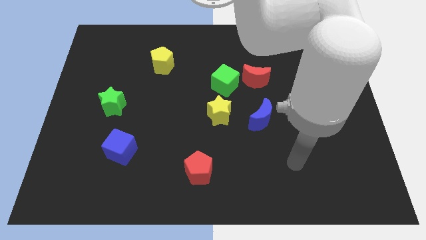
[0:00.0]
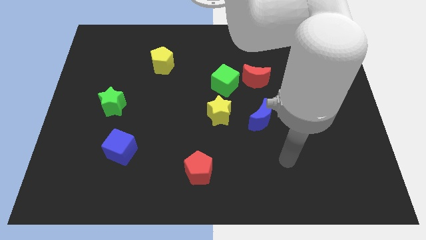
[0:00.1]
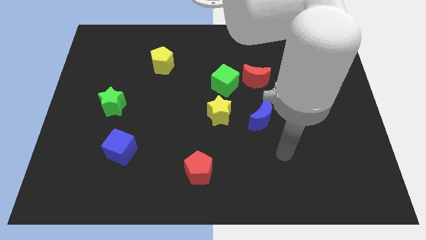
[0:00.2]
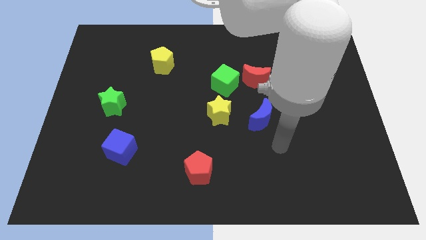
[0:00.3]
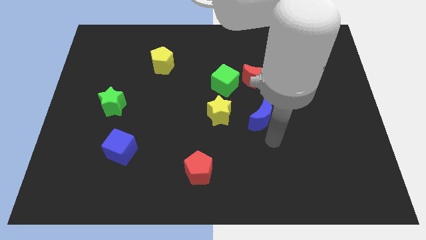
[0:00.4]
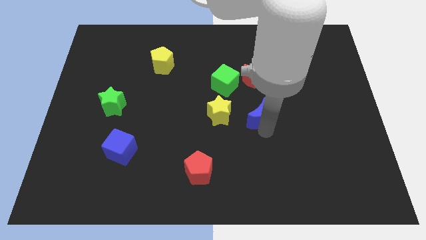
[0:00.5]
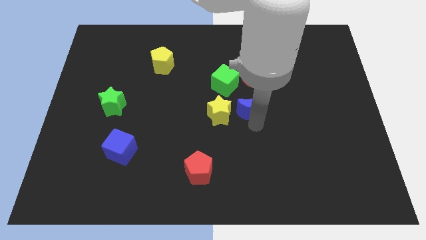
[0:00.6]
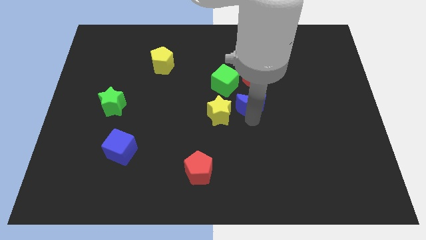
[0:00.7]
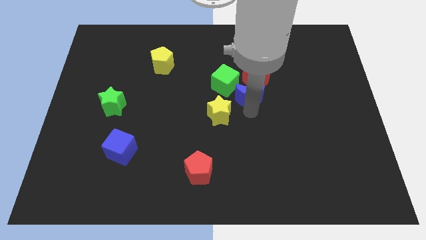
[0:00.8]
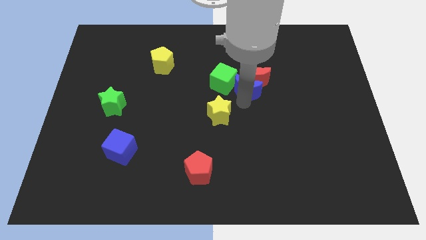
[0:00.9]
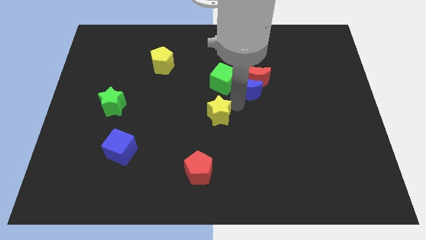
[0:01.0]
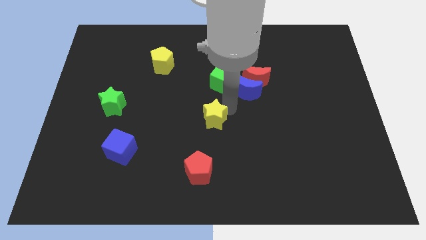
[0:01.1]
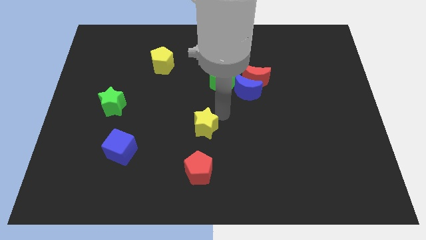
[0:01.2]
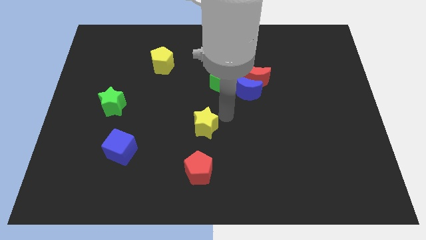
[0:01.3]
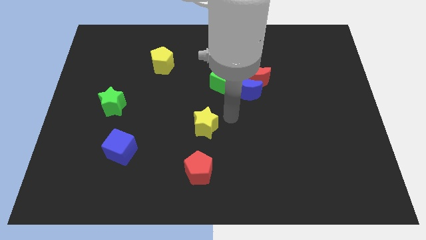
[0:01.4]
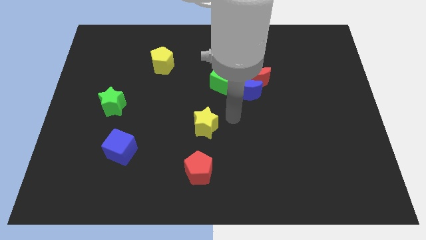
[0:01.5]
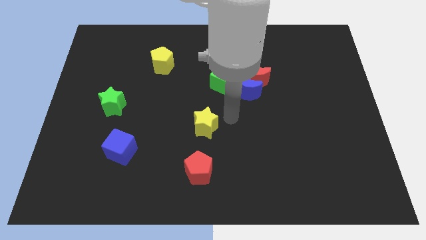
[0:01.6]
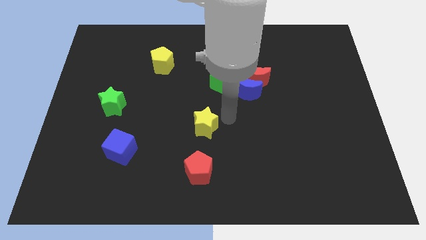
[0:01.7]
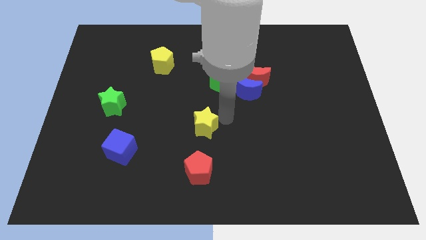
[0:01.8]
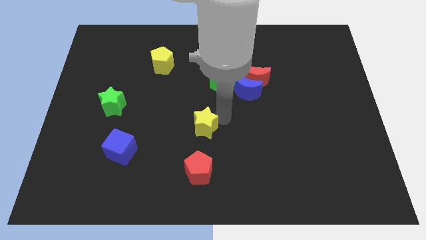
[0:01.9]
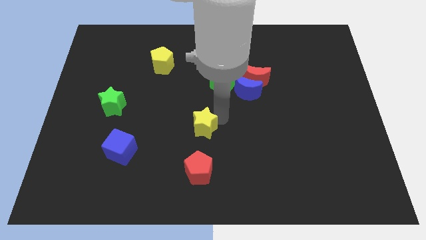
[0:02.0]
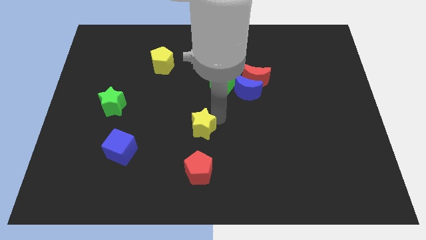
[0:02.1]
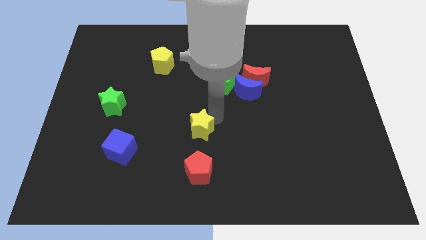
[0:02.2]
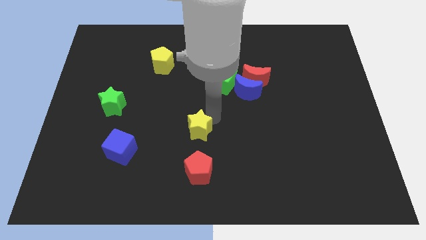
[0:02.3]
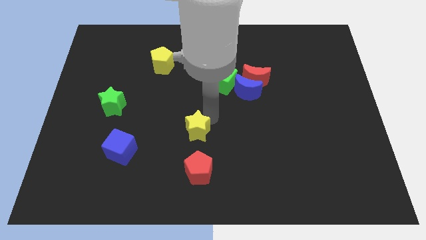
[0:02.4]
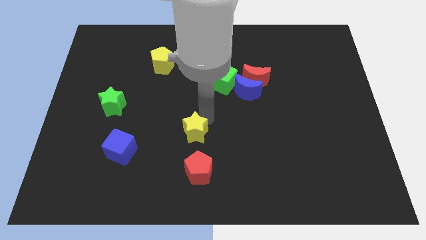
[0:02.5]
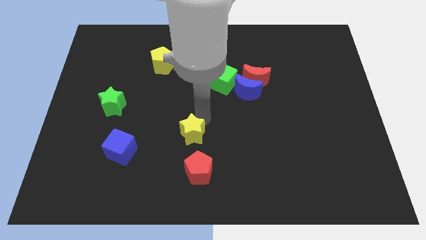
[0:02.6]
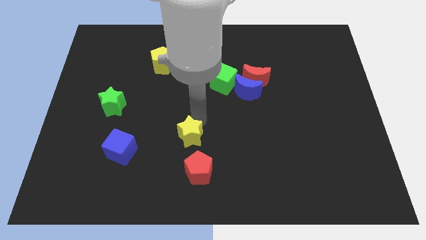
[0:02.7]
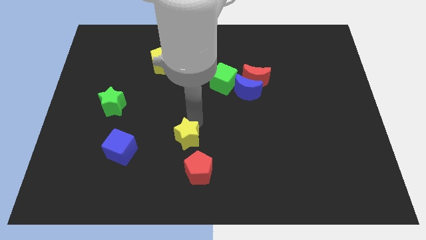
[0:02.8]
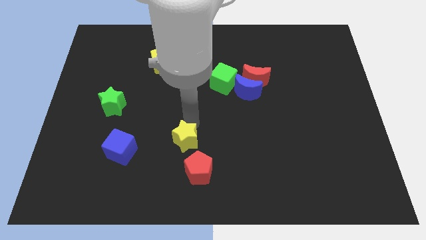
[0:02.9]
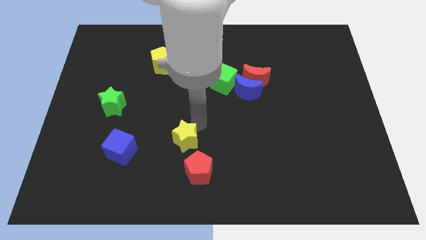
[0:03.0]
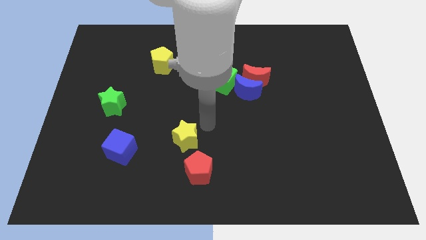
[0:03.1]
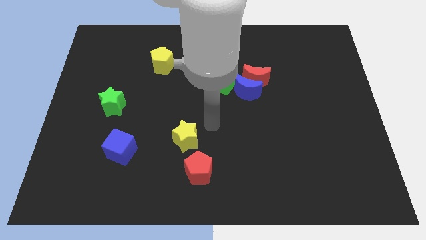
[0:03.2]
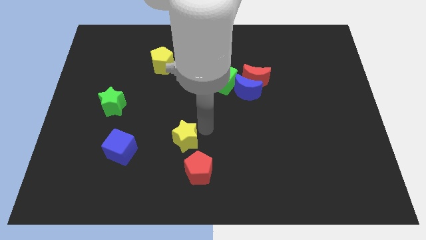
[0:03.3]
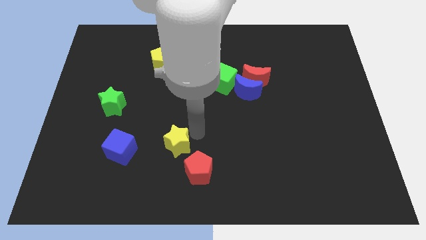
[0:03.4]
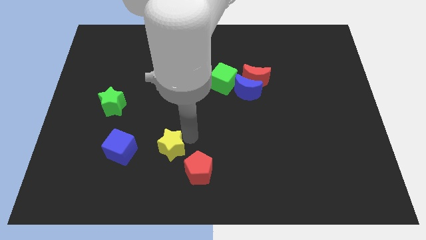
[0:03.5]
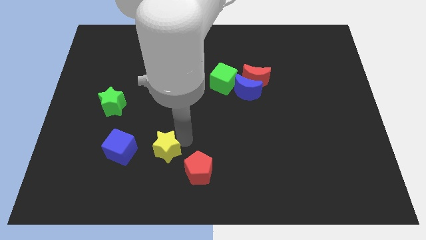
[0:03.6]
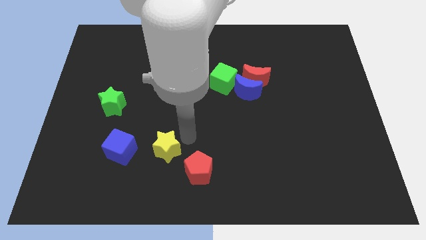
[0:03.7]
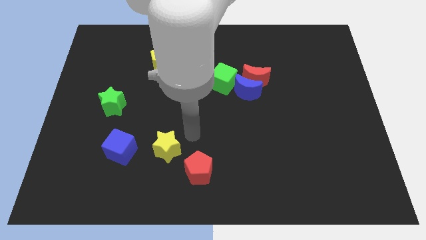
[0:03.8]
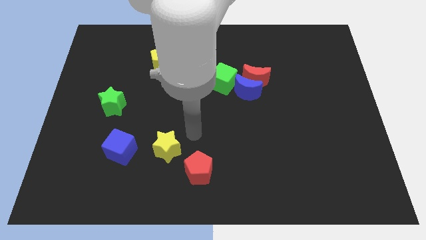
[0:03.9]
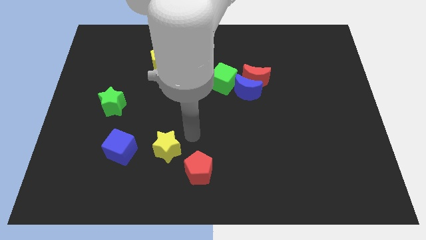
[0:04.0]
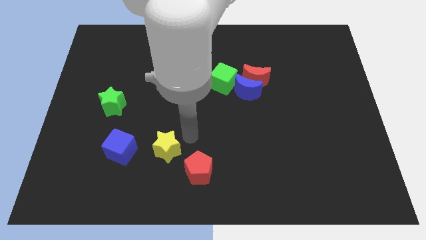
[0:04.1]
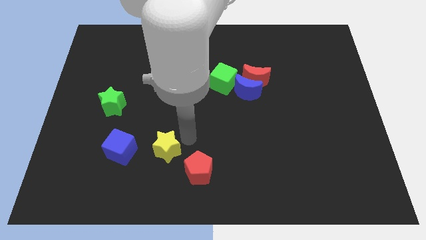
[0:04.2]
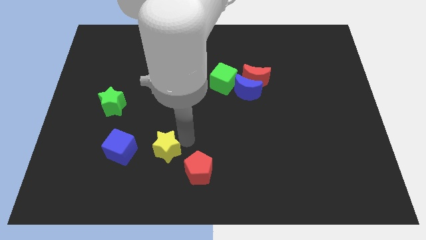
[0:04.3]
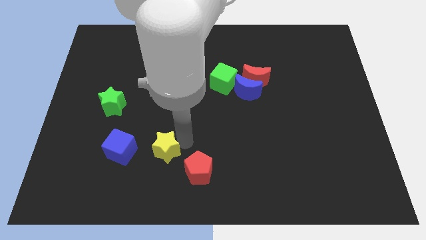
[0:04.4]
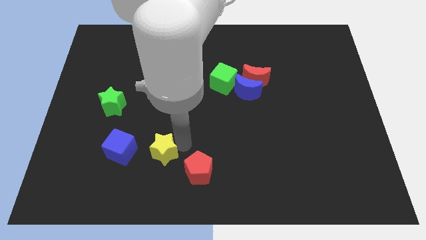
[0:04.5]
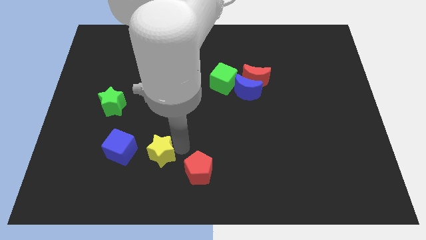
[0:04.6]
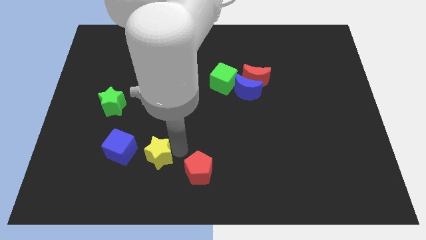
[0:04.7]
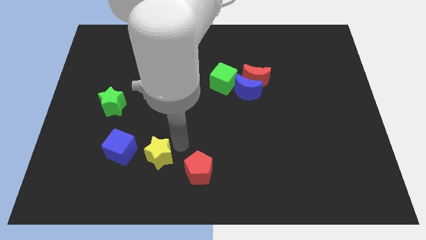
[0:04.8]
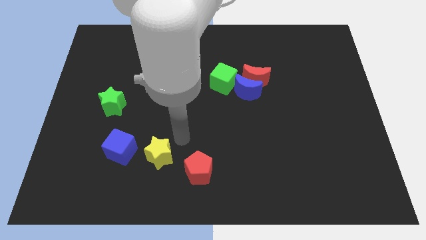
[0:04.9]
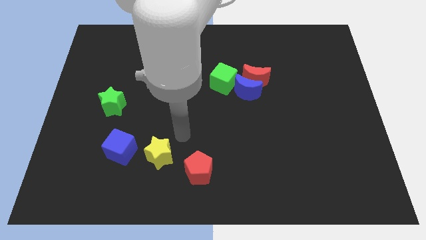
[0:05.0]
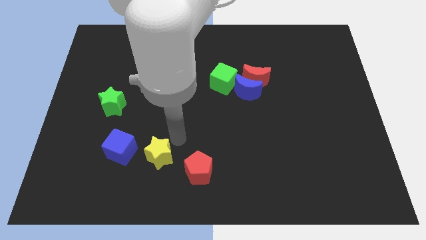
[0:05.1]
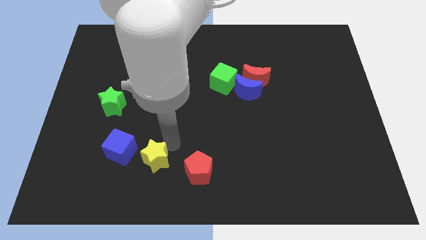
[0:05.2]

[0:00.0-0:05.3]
slide the yellow star to the bottom right of the blue cube

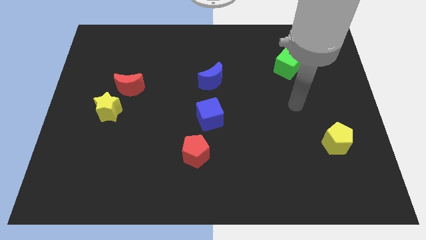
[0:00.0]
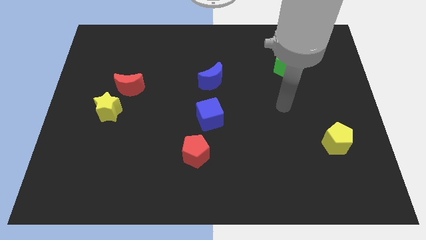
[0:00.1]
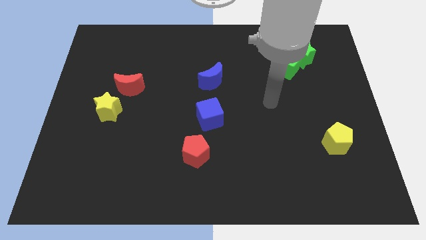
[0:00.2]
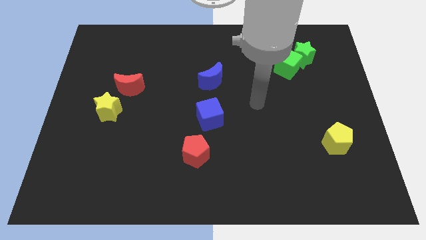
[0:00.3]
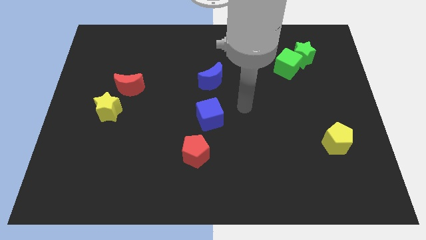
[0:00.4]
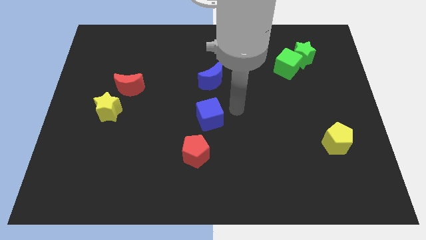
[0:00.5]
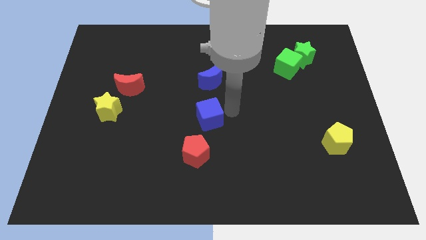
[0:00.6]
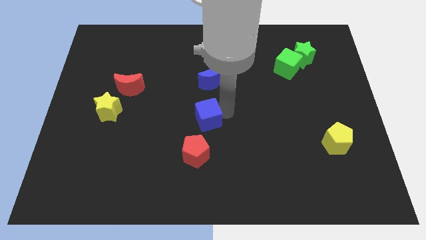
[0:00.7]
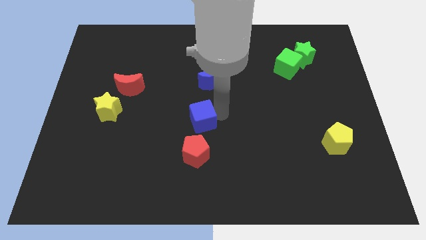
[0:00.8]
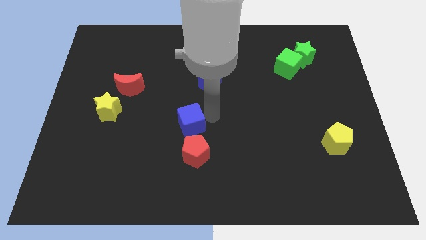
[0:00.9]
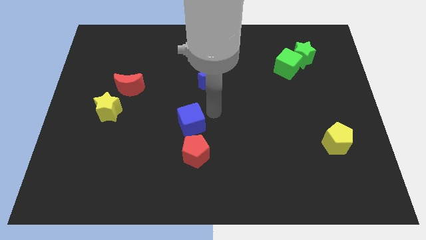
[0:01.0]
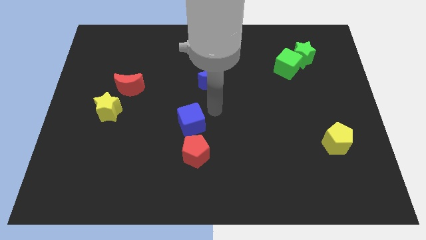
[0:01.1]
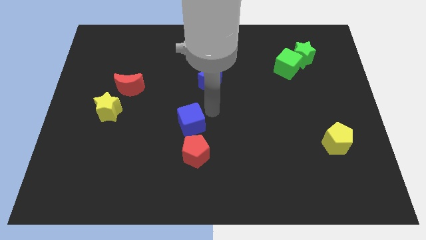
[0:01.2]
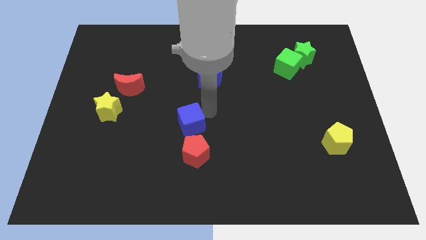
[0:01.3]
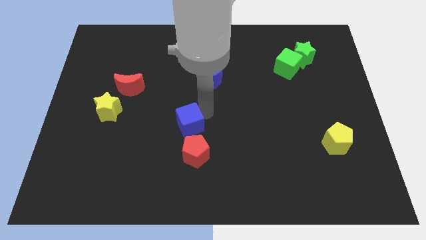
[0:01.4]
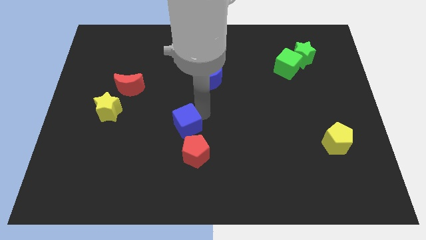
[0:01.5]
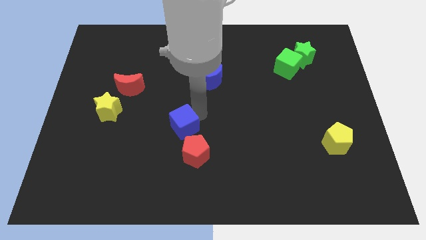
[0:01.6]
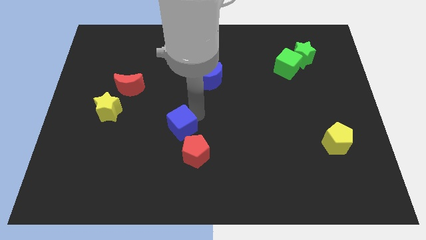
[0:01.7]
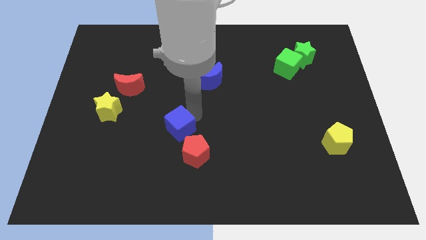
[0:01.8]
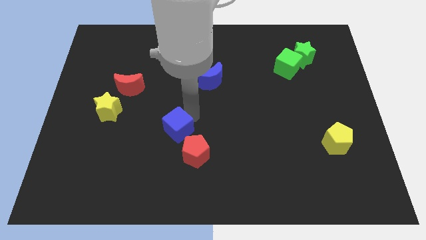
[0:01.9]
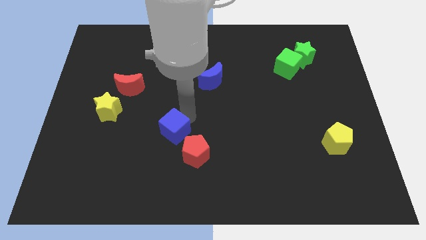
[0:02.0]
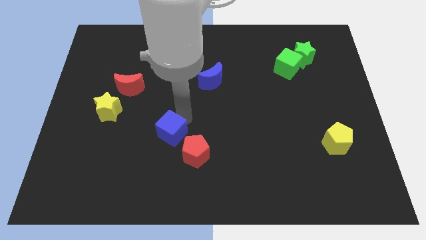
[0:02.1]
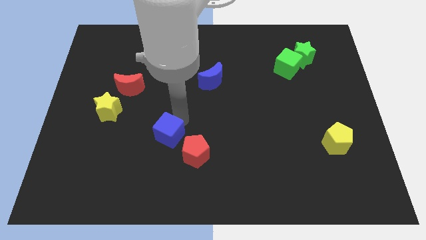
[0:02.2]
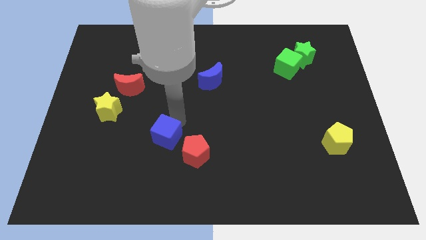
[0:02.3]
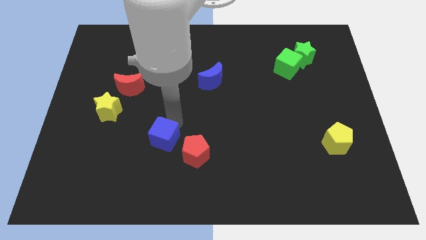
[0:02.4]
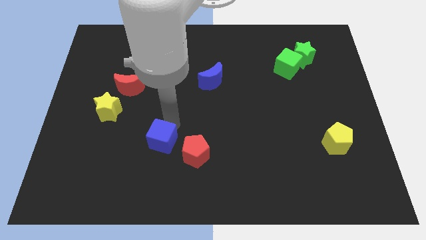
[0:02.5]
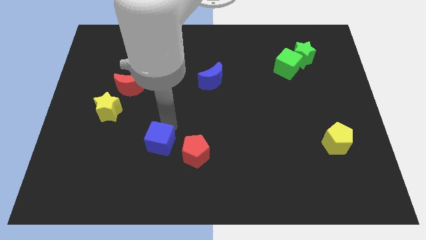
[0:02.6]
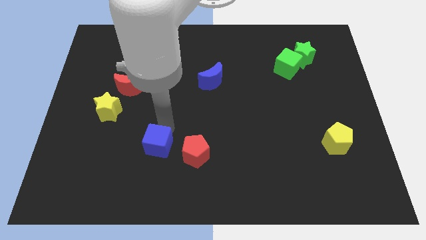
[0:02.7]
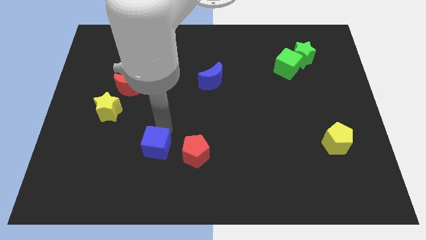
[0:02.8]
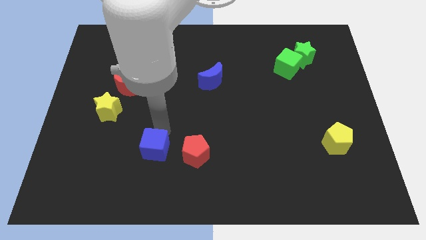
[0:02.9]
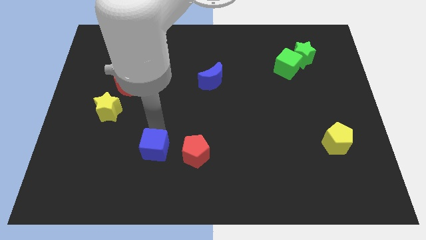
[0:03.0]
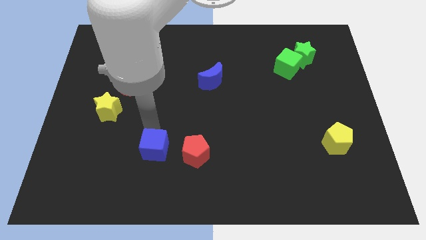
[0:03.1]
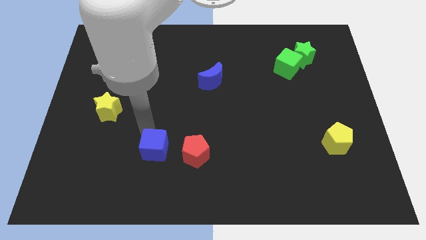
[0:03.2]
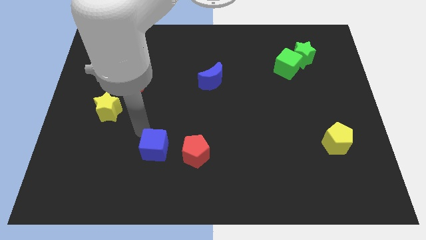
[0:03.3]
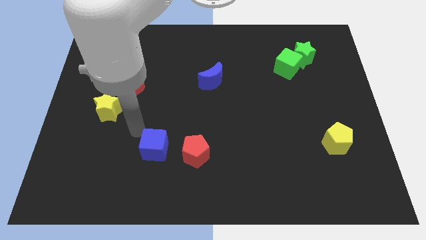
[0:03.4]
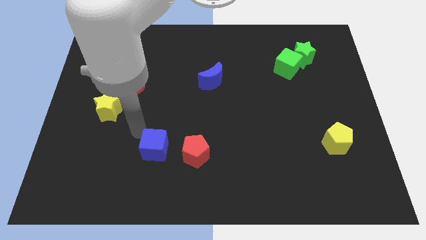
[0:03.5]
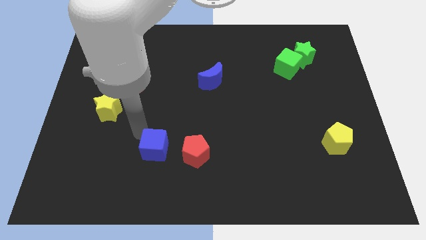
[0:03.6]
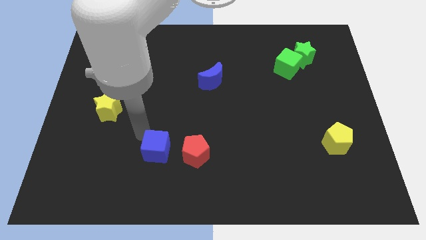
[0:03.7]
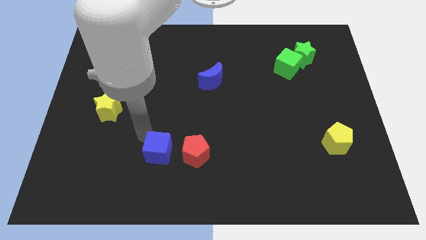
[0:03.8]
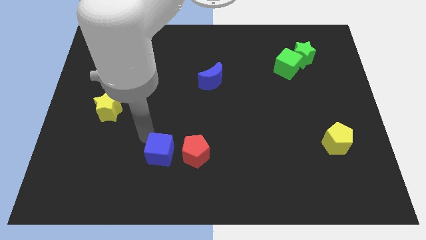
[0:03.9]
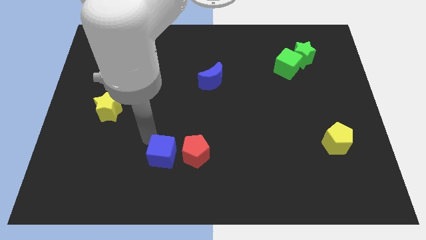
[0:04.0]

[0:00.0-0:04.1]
move the blue cube to the bottom left side of the red pentagon
